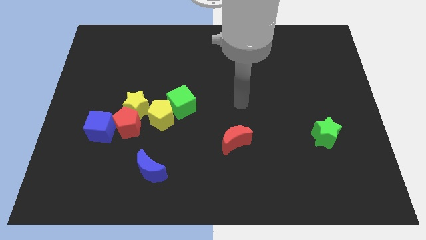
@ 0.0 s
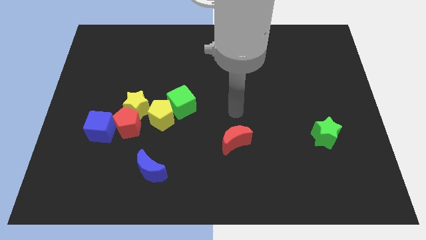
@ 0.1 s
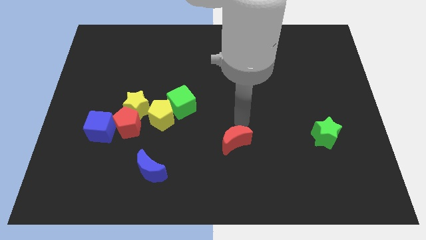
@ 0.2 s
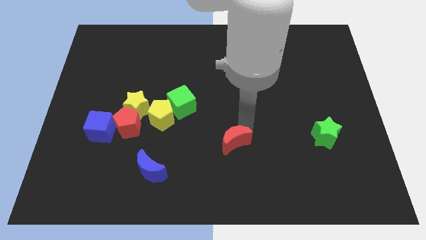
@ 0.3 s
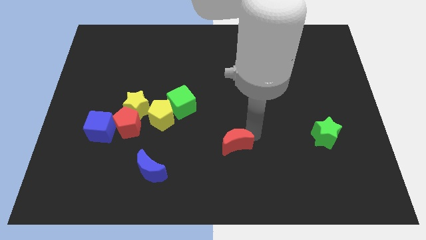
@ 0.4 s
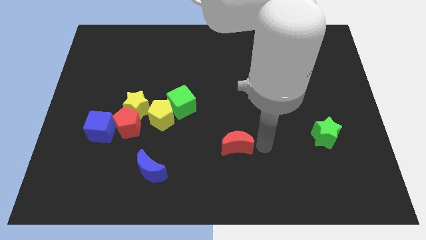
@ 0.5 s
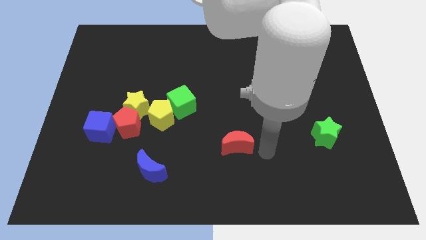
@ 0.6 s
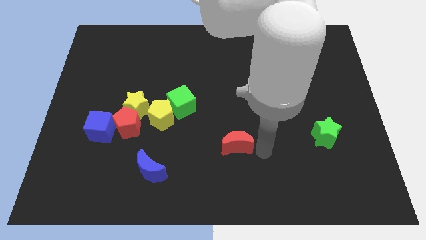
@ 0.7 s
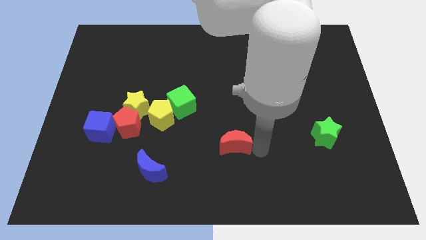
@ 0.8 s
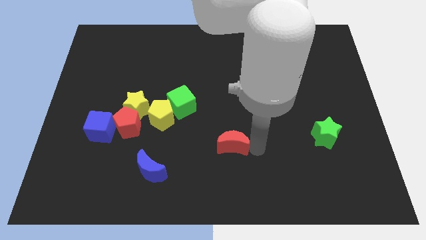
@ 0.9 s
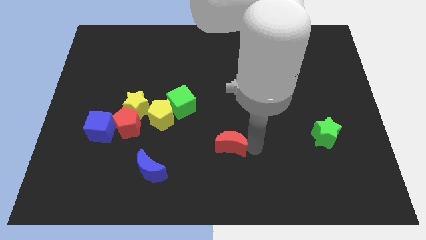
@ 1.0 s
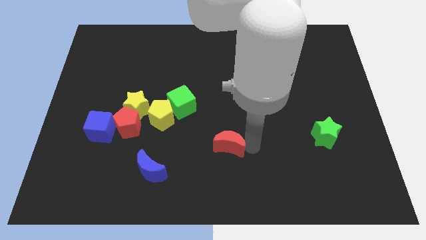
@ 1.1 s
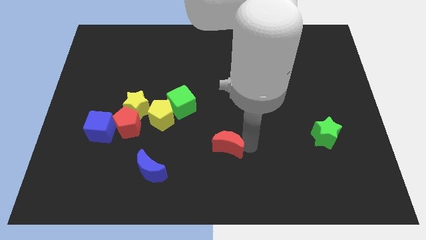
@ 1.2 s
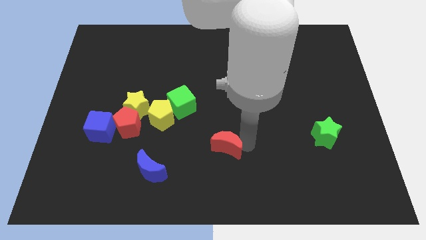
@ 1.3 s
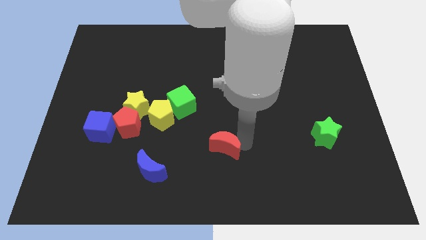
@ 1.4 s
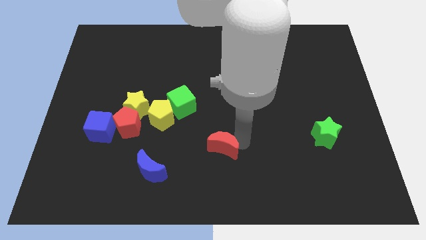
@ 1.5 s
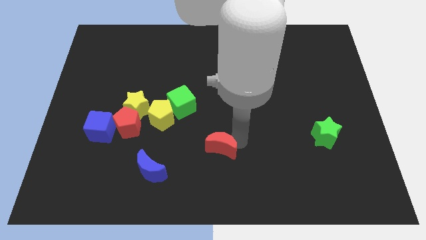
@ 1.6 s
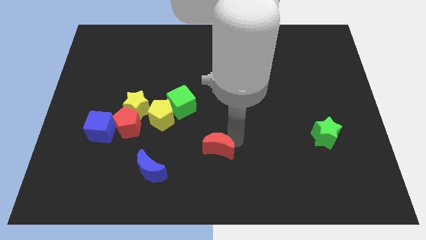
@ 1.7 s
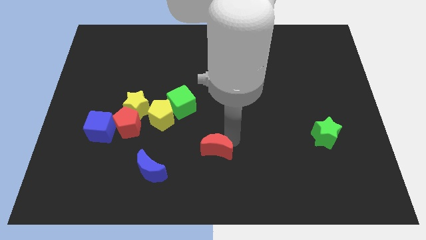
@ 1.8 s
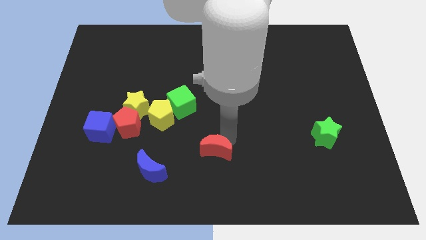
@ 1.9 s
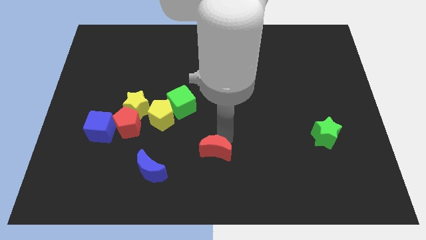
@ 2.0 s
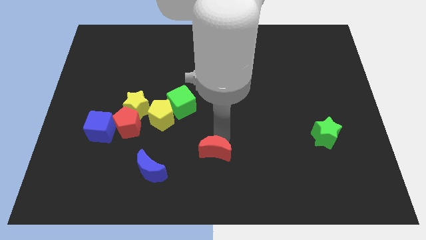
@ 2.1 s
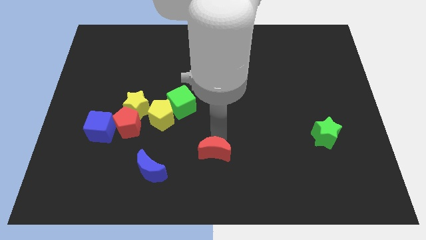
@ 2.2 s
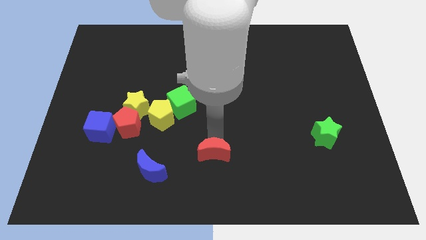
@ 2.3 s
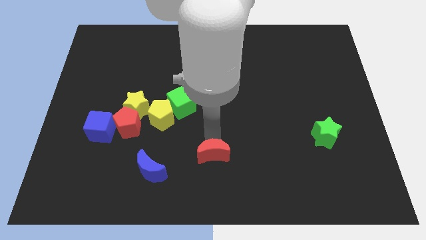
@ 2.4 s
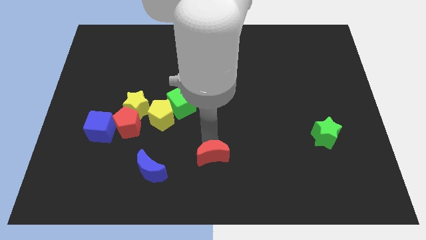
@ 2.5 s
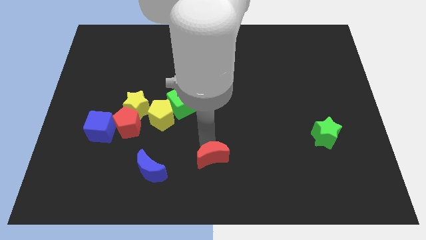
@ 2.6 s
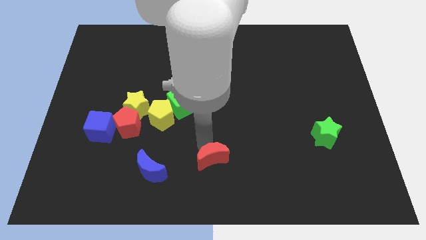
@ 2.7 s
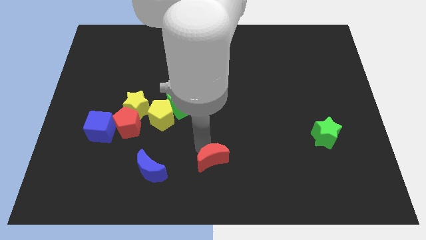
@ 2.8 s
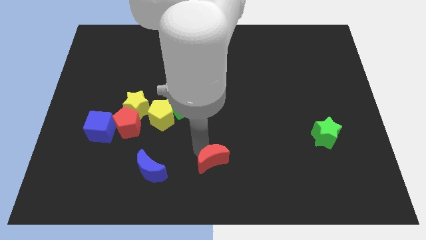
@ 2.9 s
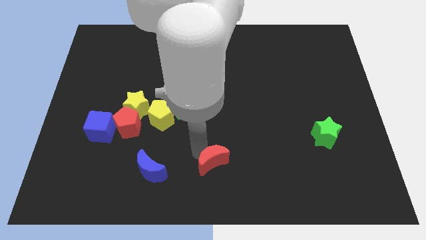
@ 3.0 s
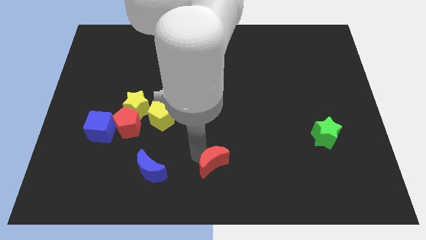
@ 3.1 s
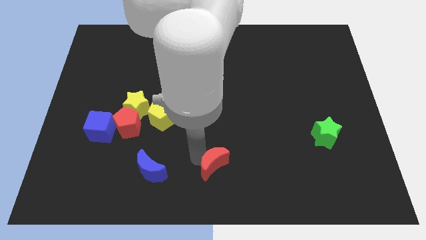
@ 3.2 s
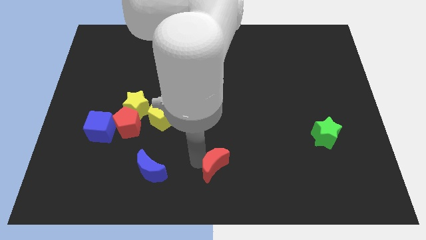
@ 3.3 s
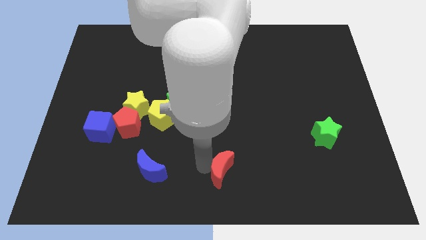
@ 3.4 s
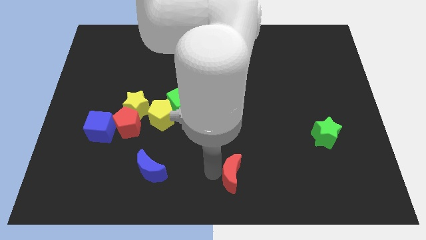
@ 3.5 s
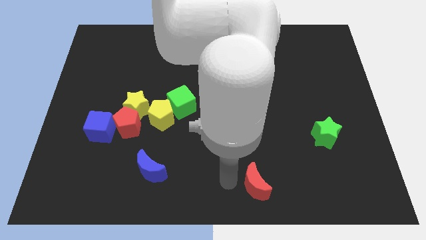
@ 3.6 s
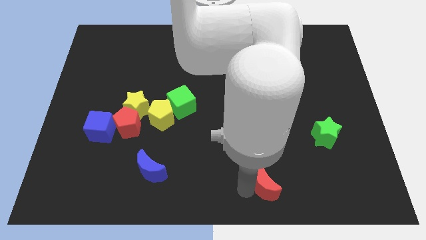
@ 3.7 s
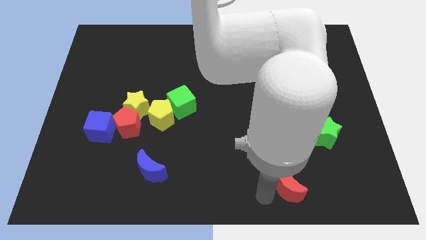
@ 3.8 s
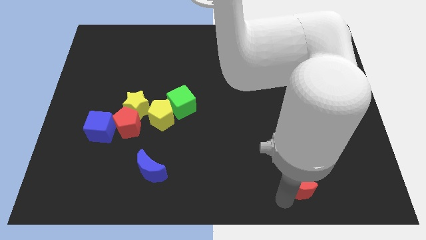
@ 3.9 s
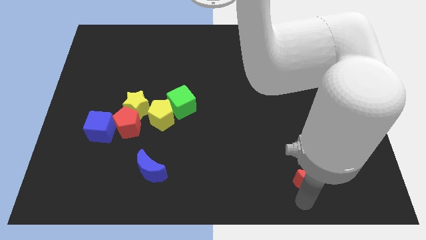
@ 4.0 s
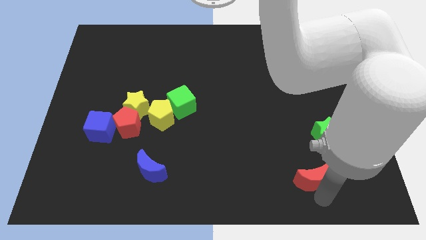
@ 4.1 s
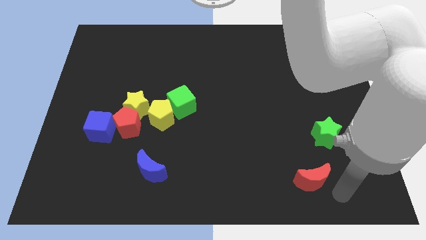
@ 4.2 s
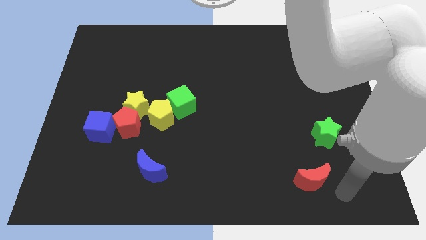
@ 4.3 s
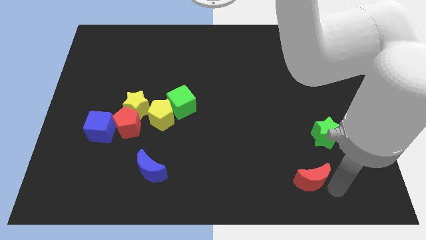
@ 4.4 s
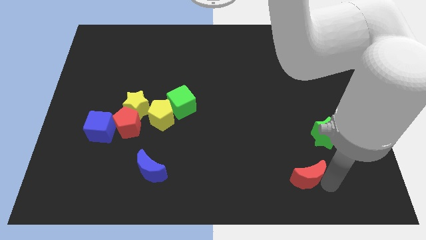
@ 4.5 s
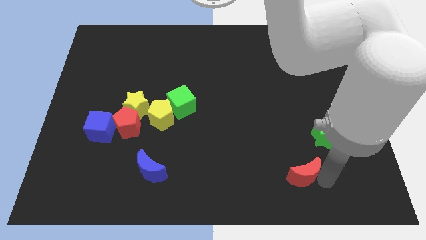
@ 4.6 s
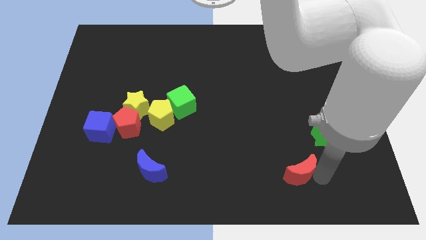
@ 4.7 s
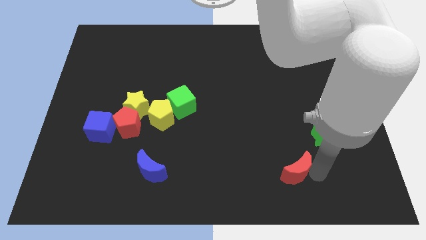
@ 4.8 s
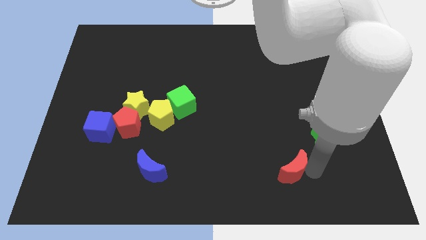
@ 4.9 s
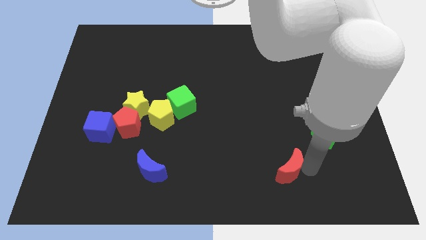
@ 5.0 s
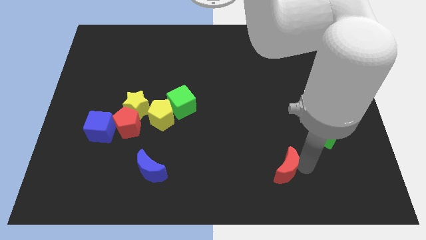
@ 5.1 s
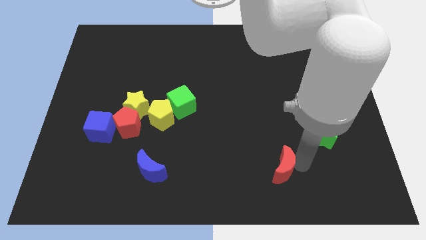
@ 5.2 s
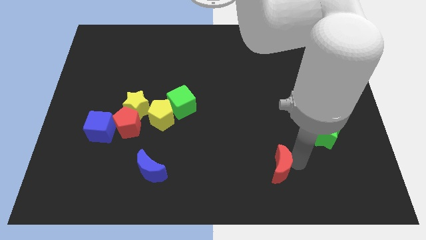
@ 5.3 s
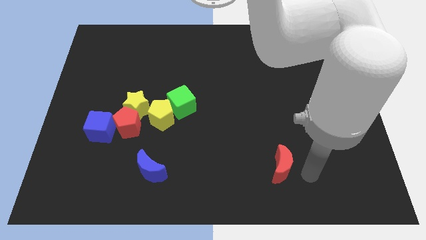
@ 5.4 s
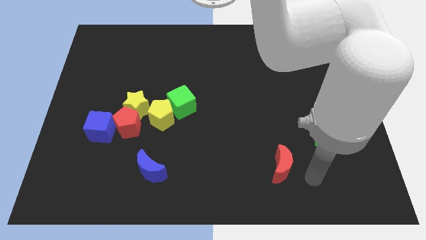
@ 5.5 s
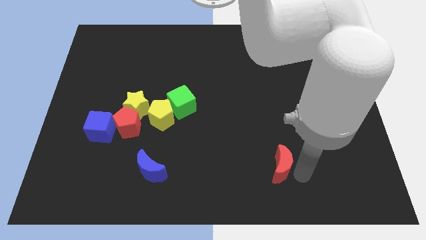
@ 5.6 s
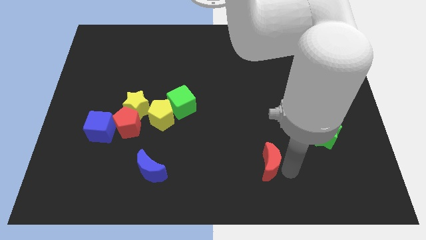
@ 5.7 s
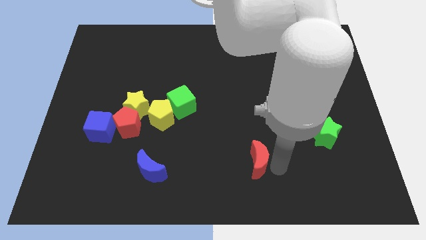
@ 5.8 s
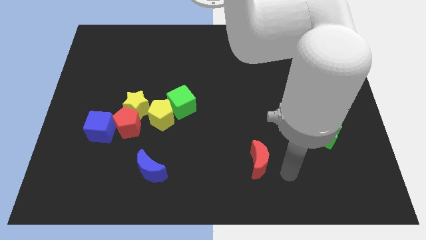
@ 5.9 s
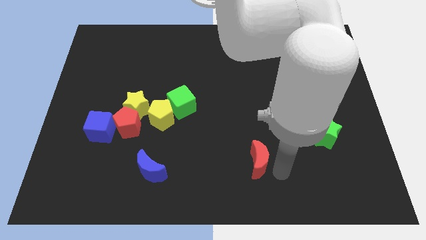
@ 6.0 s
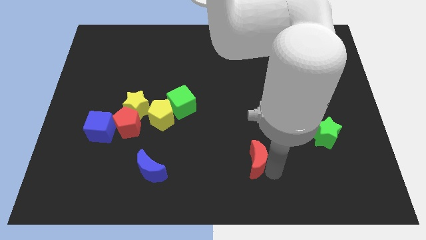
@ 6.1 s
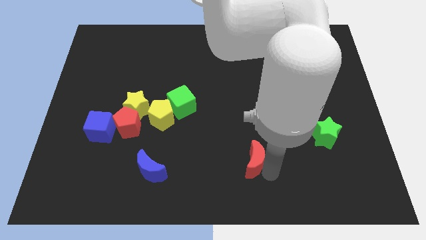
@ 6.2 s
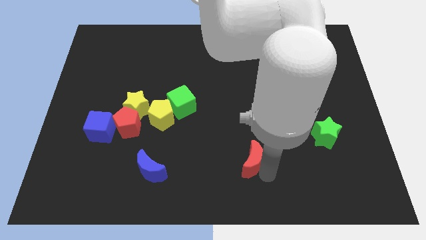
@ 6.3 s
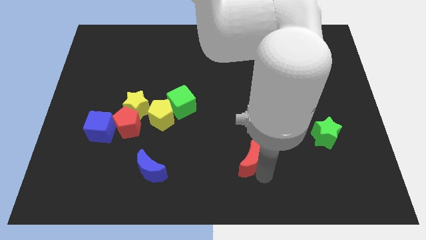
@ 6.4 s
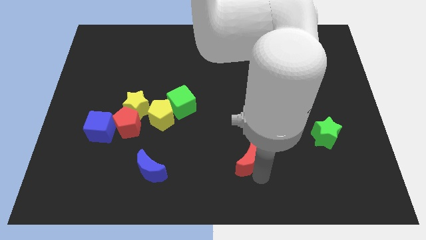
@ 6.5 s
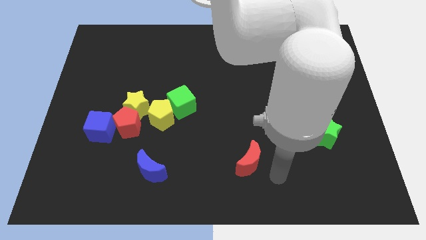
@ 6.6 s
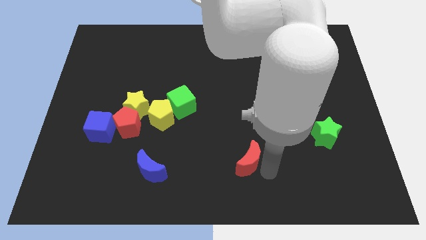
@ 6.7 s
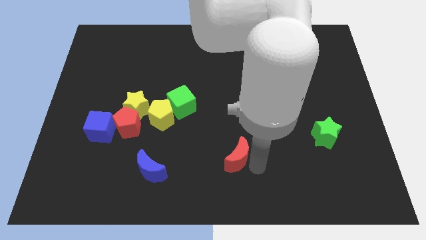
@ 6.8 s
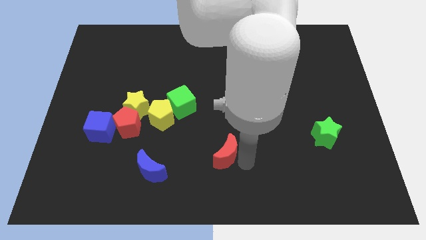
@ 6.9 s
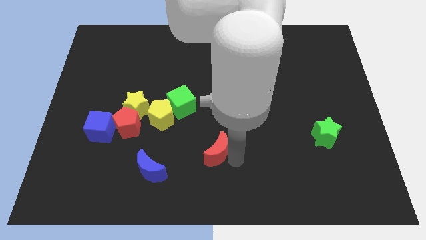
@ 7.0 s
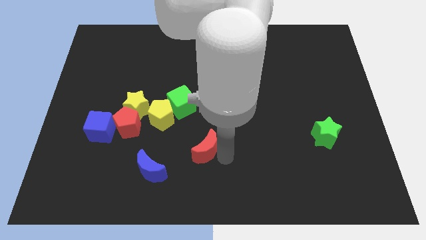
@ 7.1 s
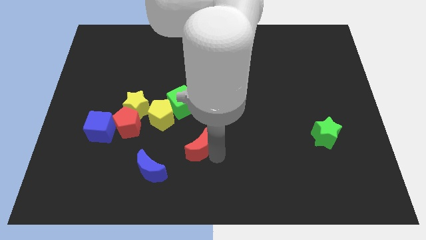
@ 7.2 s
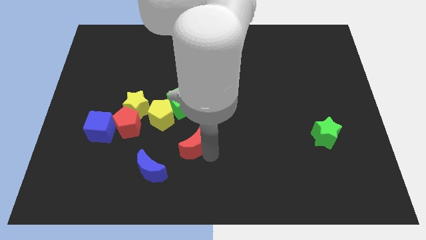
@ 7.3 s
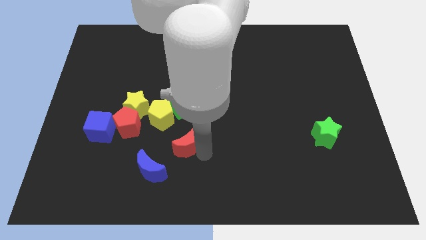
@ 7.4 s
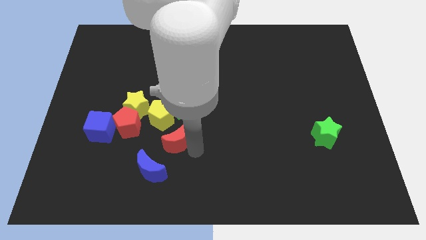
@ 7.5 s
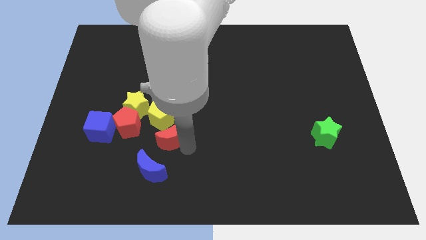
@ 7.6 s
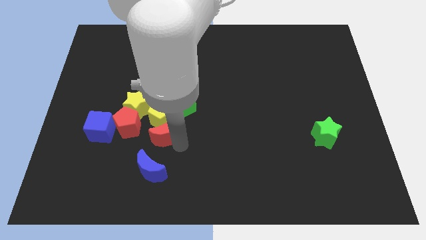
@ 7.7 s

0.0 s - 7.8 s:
move the red moon to the bottom left of the green cube
